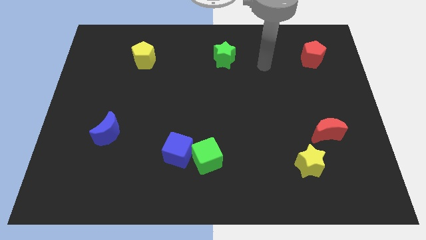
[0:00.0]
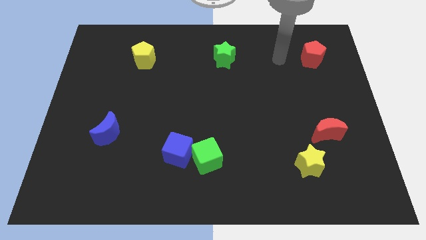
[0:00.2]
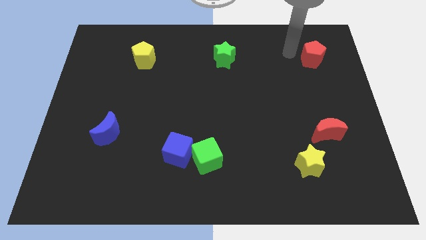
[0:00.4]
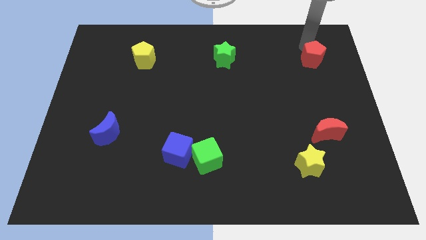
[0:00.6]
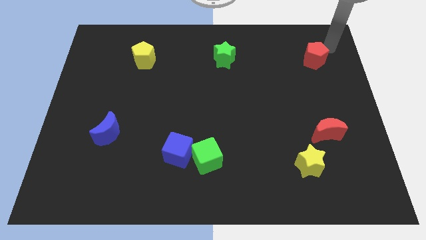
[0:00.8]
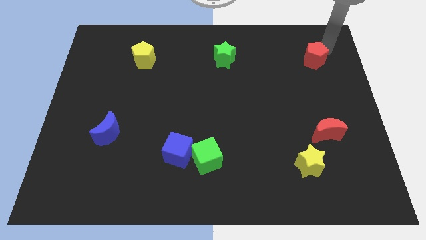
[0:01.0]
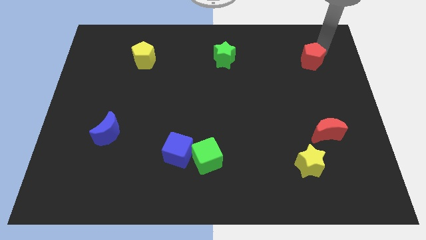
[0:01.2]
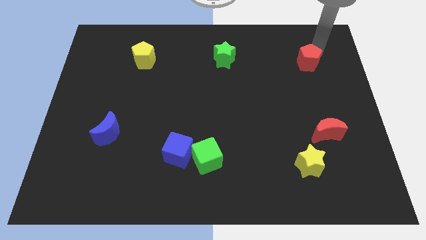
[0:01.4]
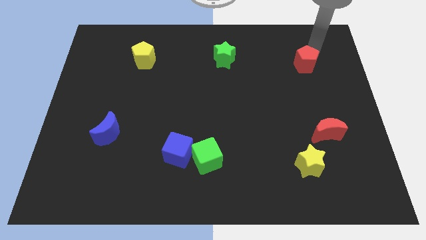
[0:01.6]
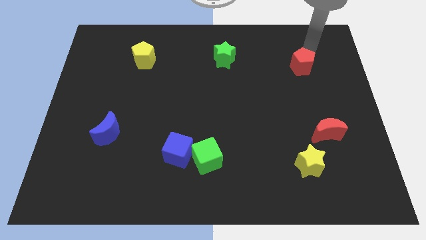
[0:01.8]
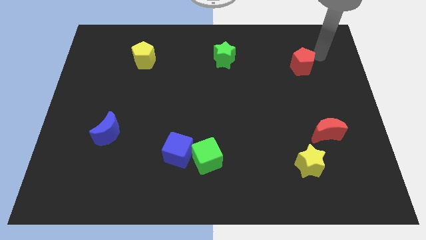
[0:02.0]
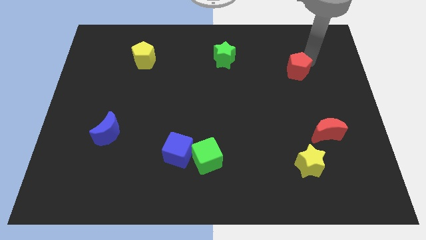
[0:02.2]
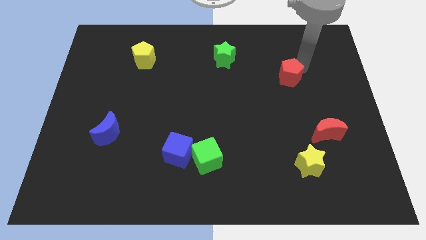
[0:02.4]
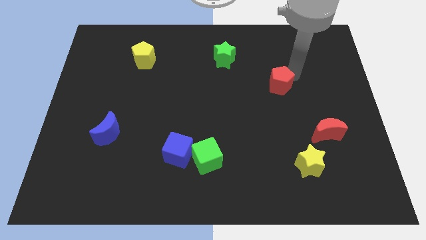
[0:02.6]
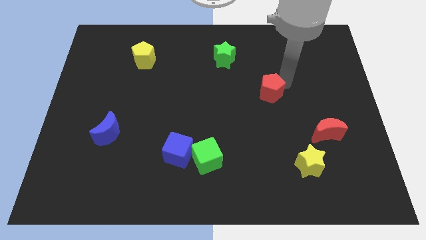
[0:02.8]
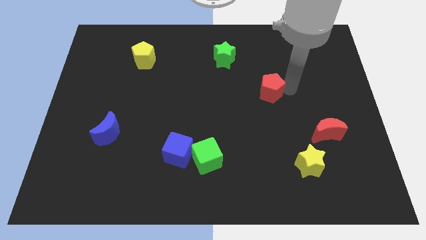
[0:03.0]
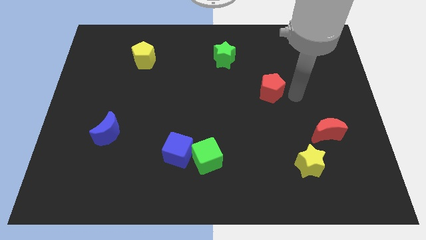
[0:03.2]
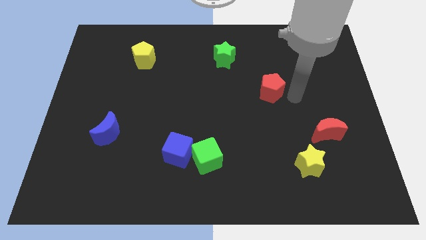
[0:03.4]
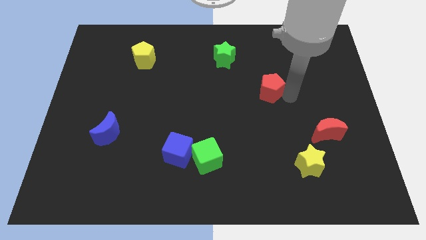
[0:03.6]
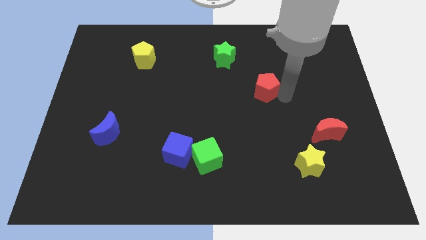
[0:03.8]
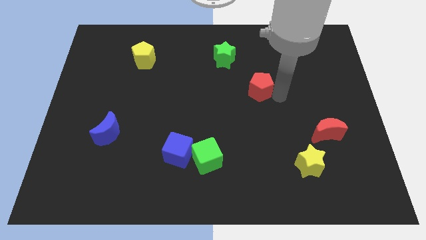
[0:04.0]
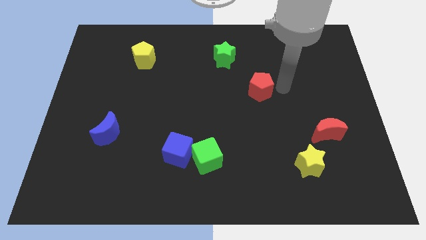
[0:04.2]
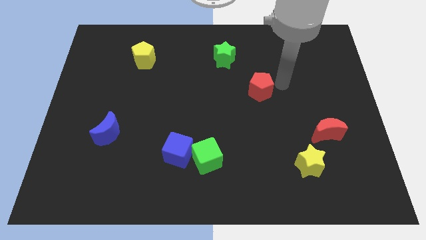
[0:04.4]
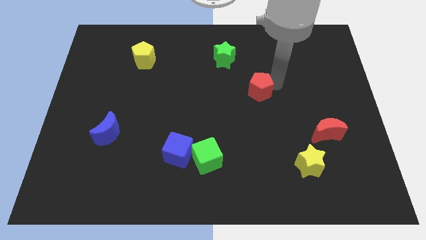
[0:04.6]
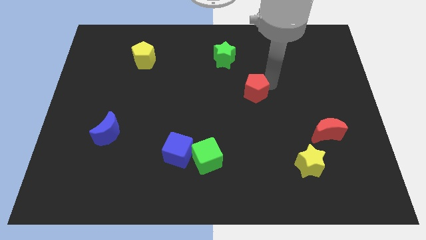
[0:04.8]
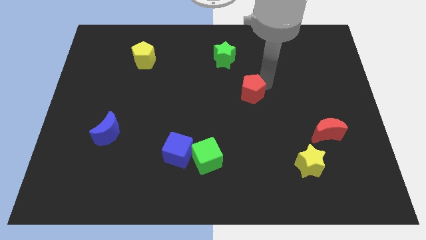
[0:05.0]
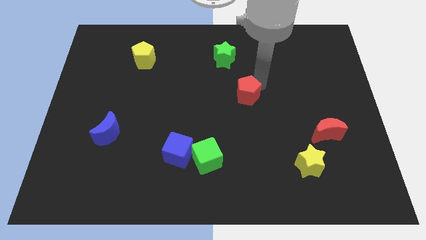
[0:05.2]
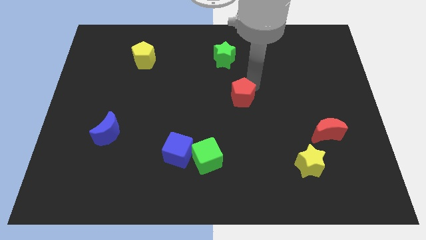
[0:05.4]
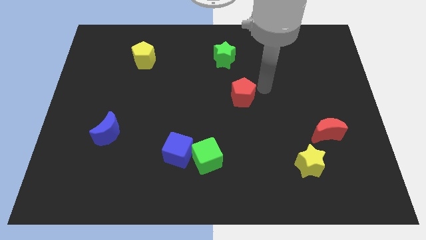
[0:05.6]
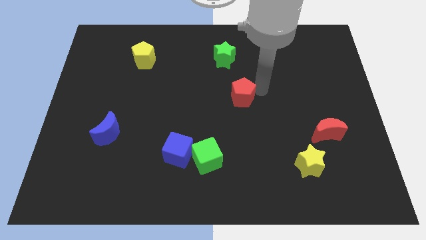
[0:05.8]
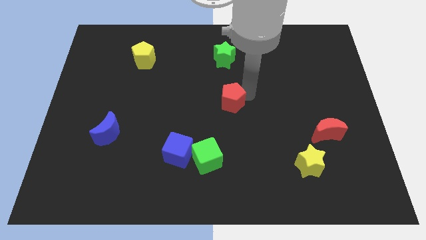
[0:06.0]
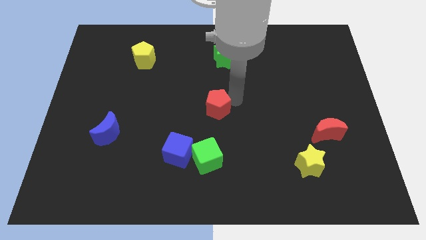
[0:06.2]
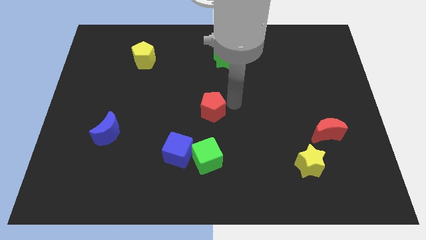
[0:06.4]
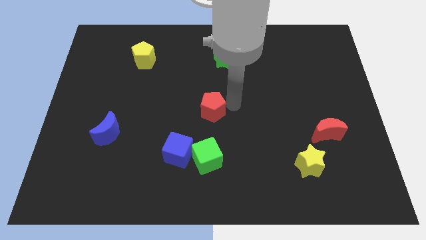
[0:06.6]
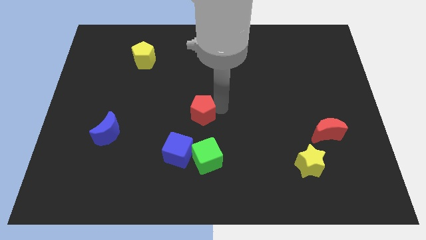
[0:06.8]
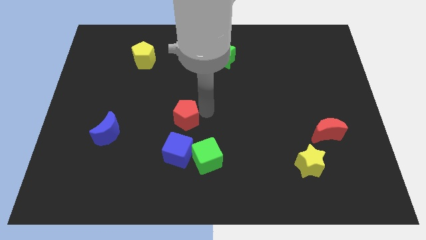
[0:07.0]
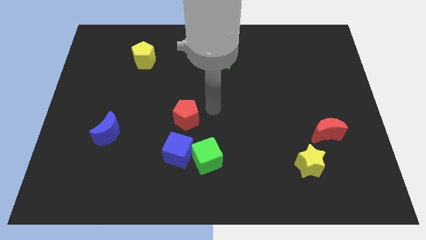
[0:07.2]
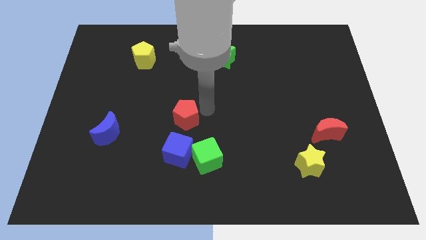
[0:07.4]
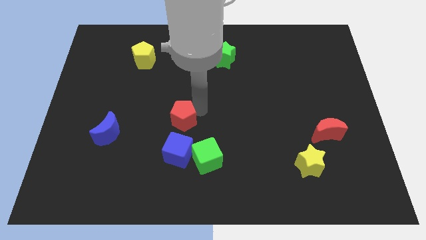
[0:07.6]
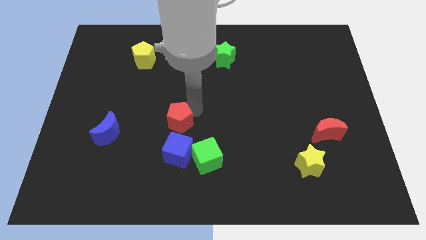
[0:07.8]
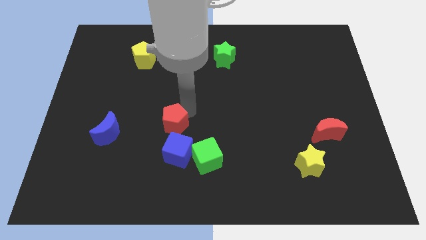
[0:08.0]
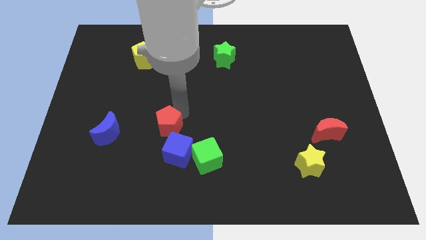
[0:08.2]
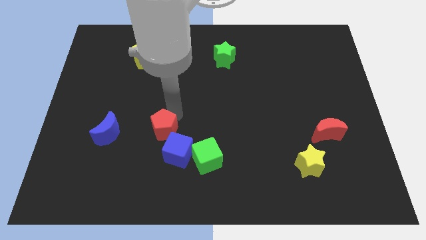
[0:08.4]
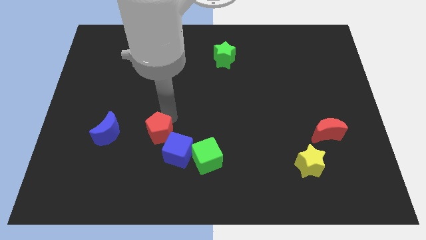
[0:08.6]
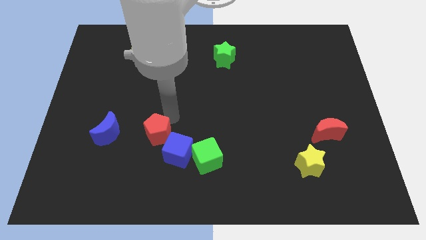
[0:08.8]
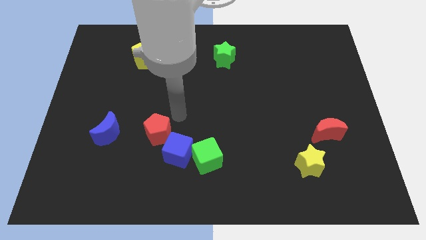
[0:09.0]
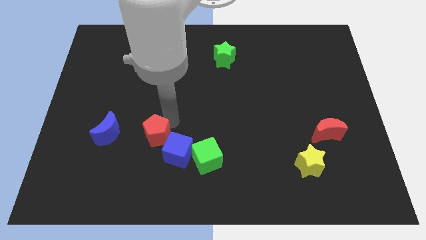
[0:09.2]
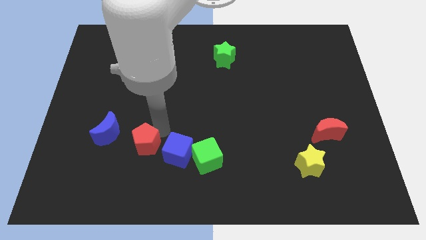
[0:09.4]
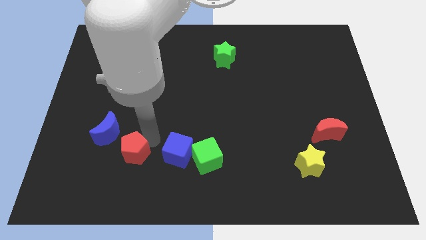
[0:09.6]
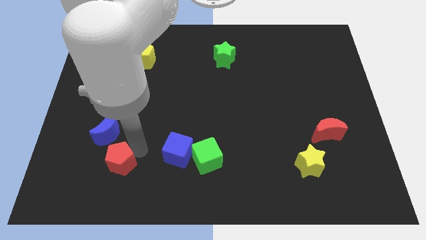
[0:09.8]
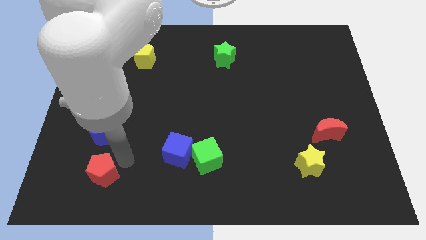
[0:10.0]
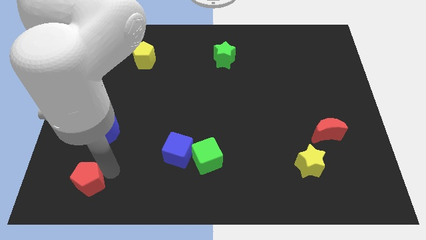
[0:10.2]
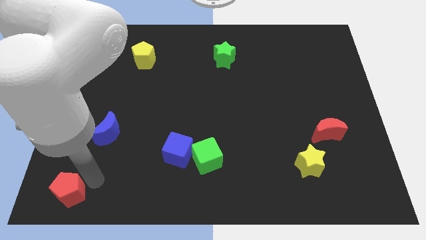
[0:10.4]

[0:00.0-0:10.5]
slide the red pentagon to the bottom left of the board
